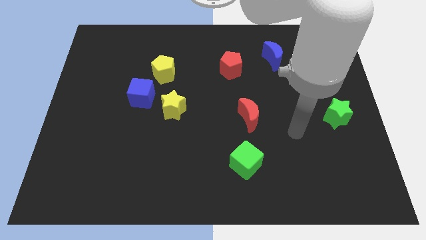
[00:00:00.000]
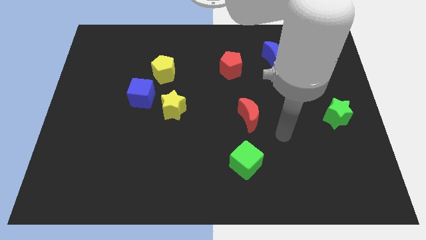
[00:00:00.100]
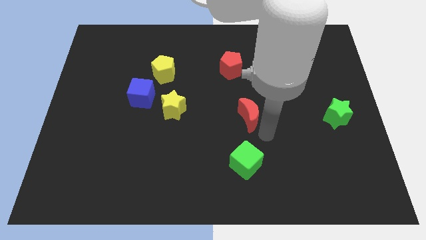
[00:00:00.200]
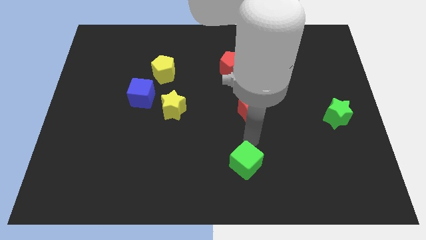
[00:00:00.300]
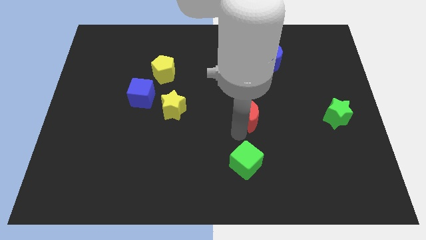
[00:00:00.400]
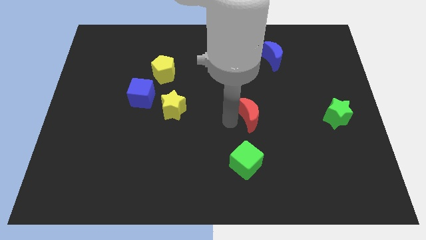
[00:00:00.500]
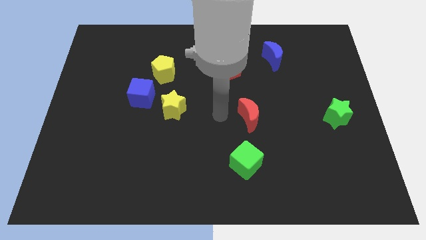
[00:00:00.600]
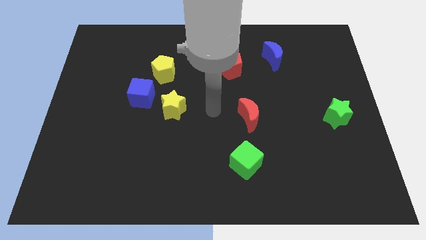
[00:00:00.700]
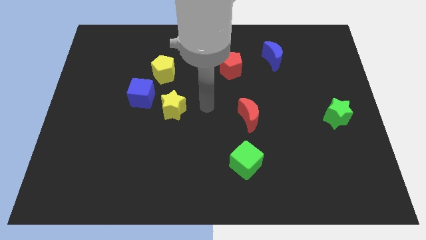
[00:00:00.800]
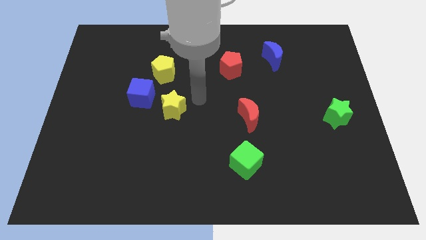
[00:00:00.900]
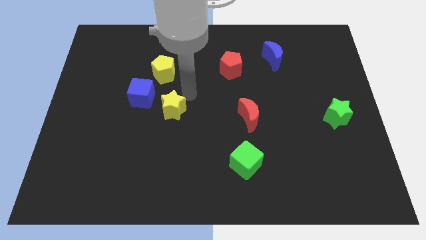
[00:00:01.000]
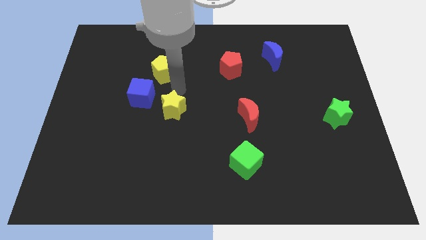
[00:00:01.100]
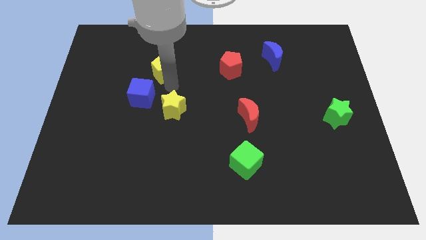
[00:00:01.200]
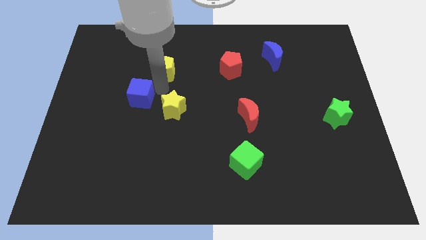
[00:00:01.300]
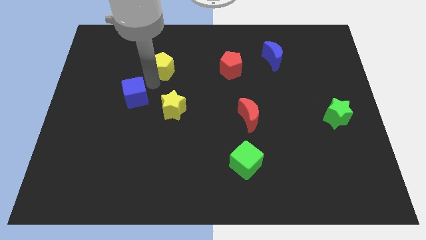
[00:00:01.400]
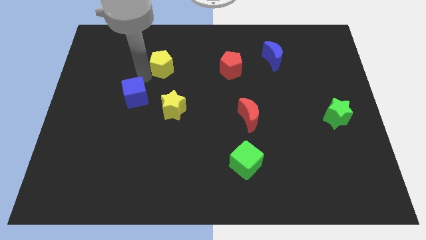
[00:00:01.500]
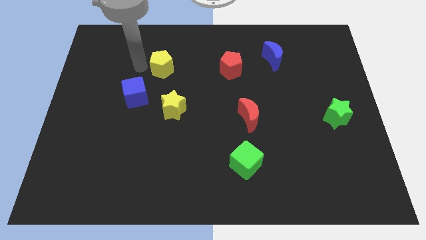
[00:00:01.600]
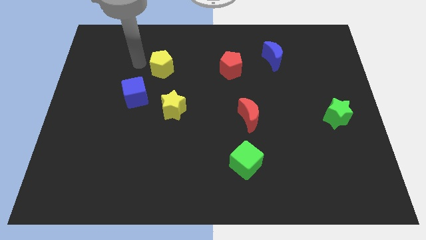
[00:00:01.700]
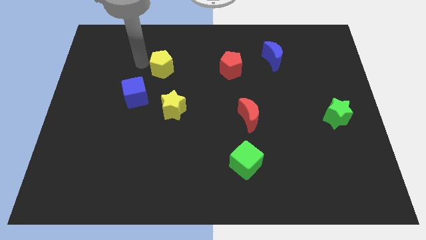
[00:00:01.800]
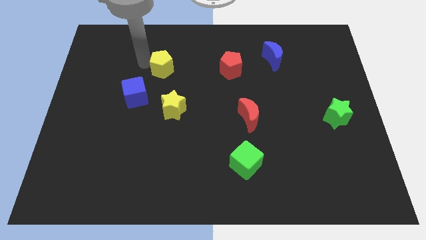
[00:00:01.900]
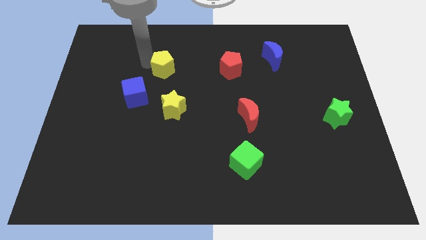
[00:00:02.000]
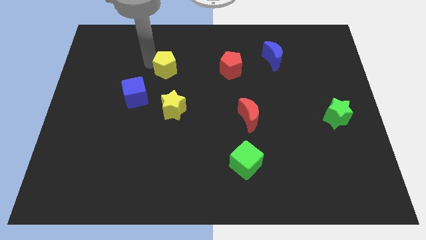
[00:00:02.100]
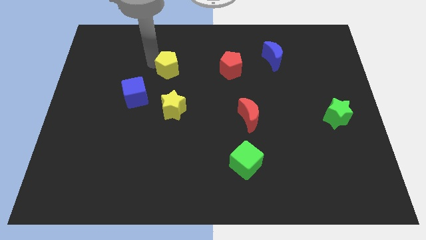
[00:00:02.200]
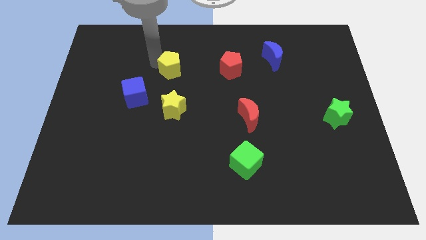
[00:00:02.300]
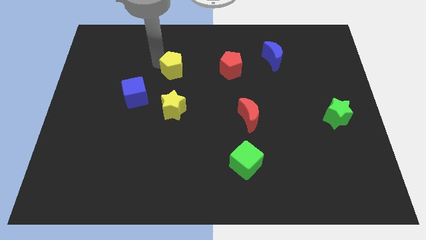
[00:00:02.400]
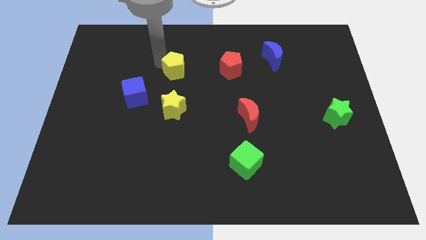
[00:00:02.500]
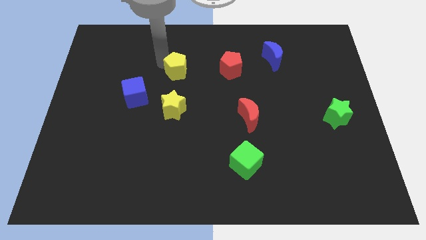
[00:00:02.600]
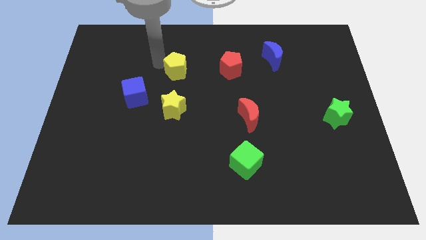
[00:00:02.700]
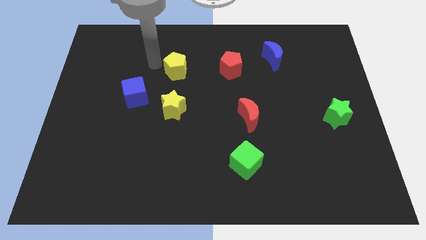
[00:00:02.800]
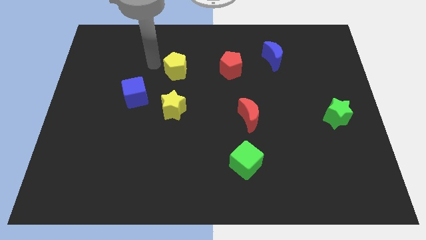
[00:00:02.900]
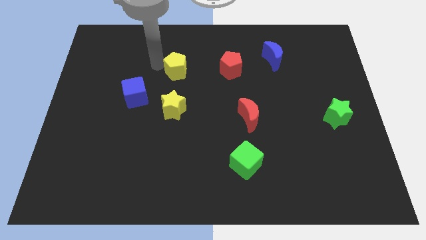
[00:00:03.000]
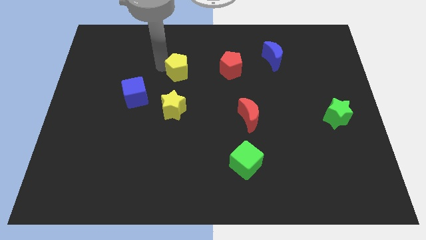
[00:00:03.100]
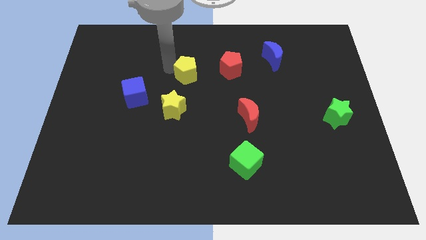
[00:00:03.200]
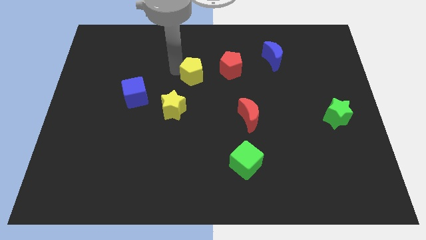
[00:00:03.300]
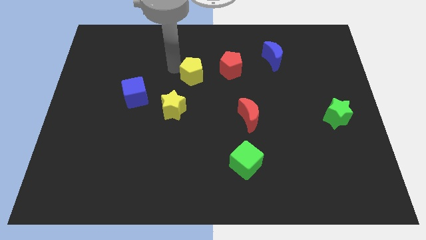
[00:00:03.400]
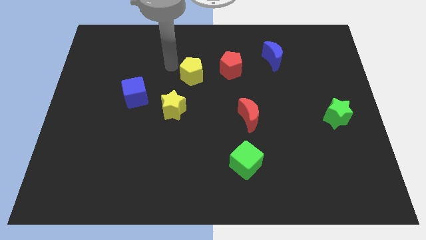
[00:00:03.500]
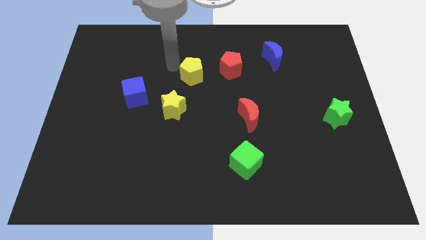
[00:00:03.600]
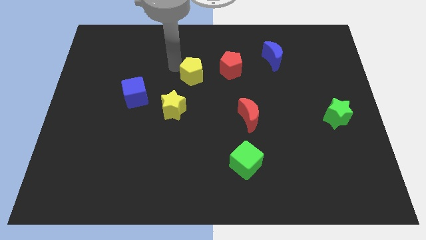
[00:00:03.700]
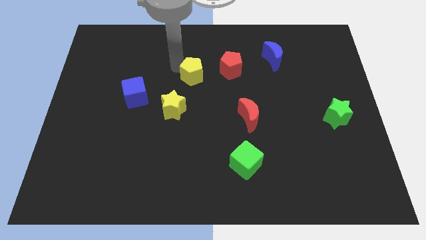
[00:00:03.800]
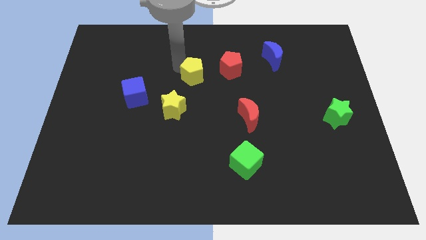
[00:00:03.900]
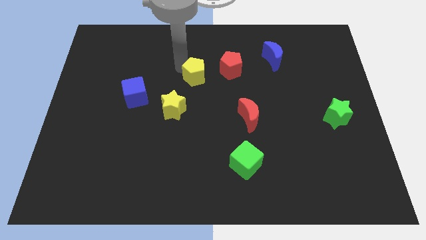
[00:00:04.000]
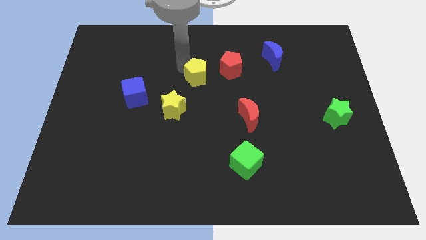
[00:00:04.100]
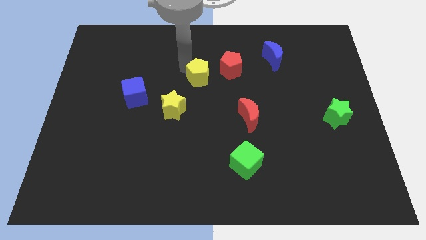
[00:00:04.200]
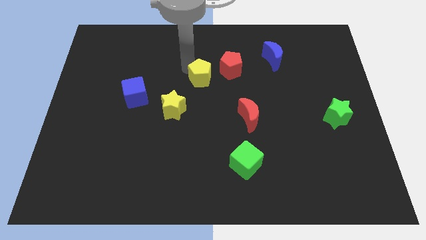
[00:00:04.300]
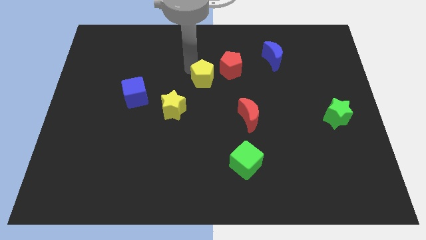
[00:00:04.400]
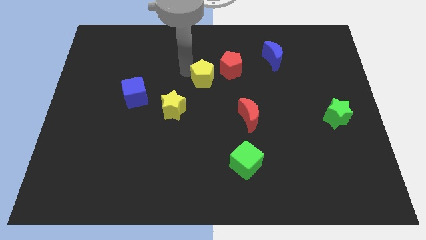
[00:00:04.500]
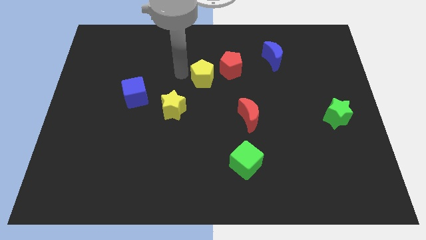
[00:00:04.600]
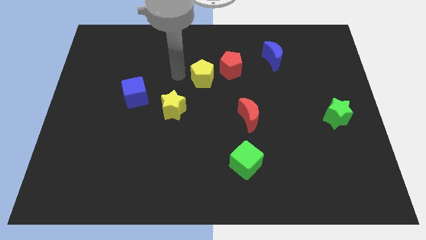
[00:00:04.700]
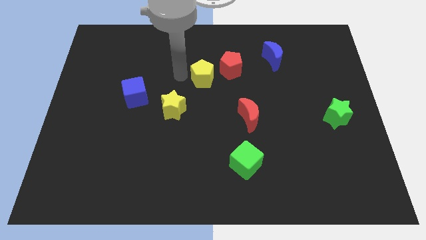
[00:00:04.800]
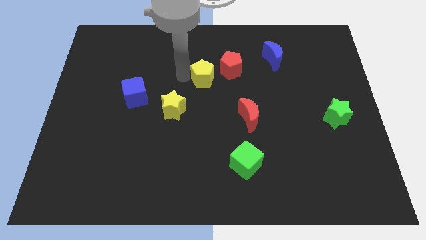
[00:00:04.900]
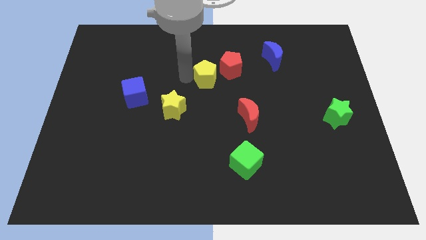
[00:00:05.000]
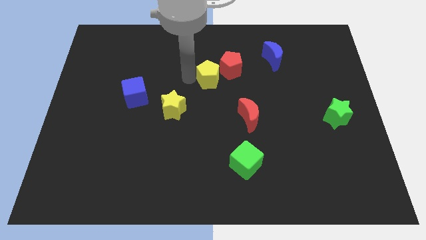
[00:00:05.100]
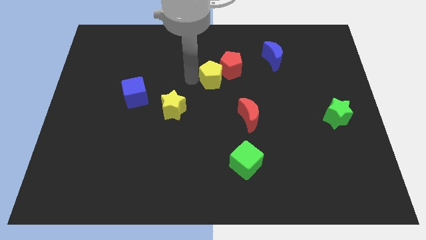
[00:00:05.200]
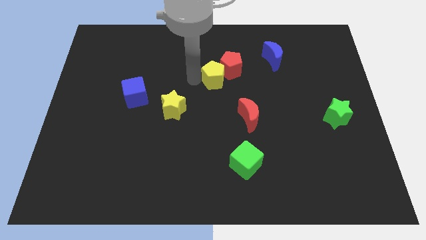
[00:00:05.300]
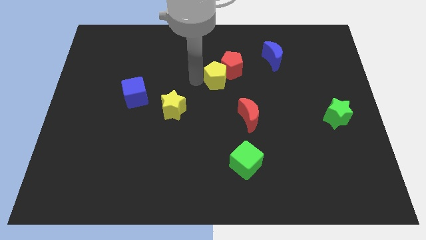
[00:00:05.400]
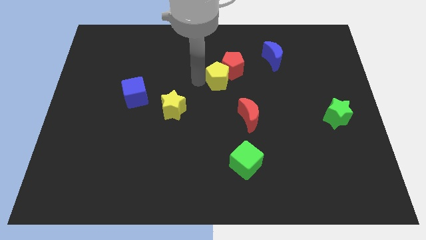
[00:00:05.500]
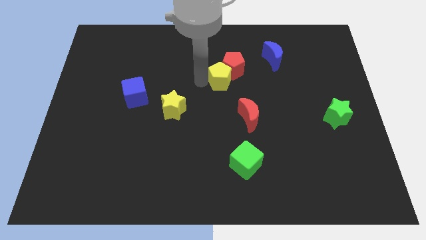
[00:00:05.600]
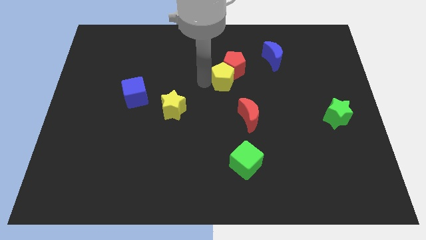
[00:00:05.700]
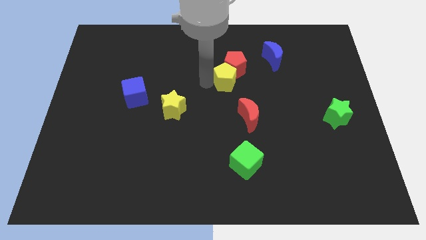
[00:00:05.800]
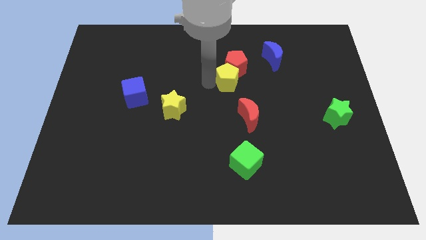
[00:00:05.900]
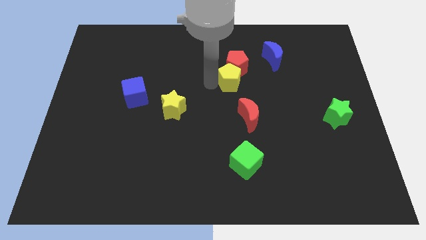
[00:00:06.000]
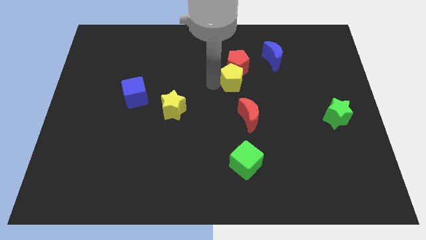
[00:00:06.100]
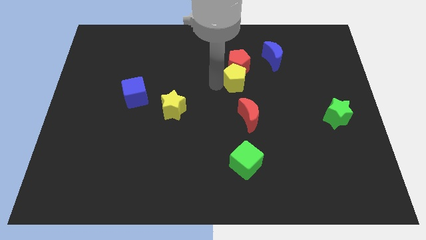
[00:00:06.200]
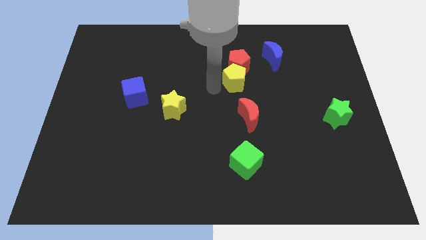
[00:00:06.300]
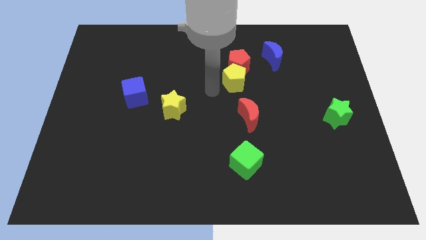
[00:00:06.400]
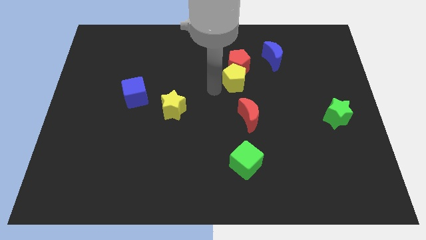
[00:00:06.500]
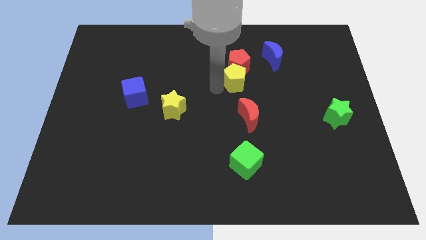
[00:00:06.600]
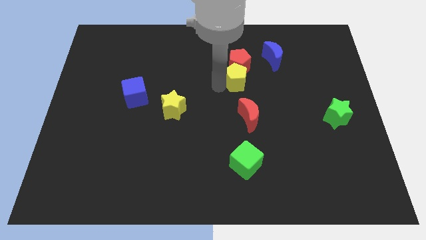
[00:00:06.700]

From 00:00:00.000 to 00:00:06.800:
move the yellow pentagon to the bottom left of the blue moon

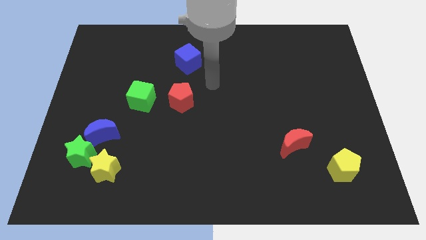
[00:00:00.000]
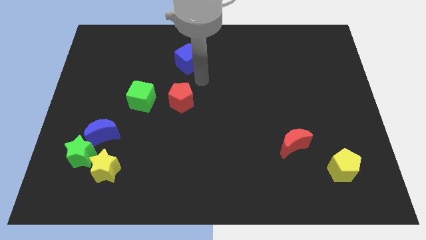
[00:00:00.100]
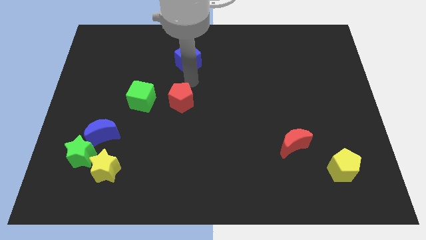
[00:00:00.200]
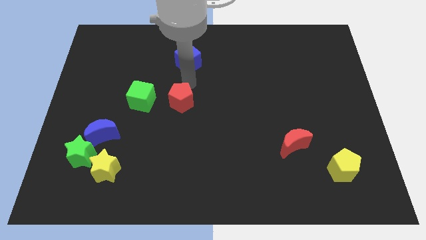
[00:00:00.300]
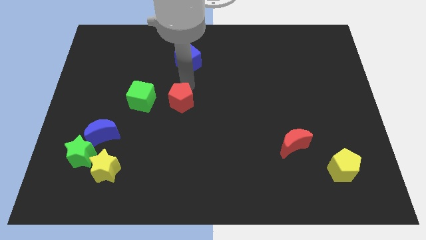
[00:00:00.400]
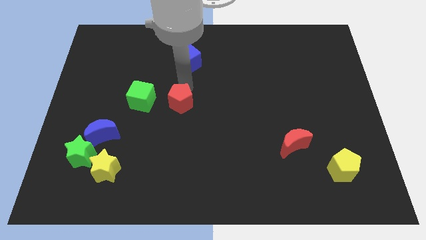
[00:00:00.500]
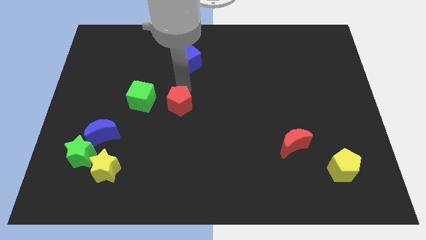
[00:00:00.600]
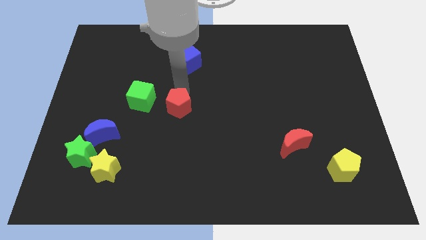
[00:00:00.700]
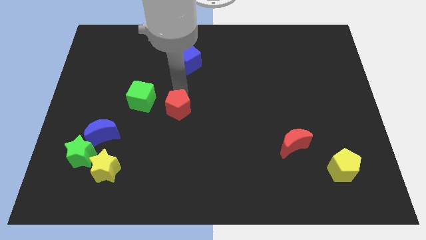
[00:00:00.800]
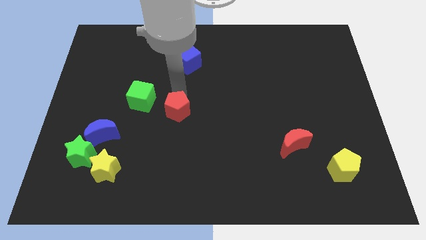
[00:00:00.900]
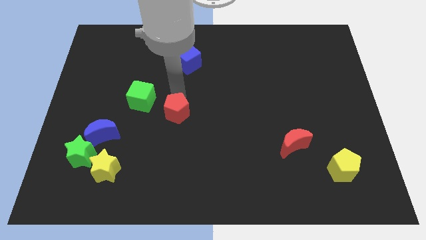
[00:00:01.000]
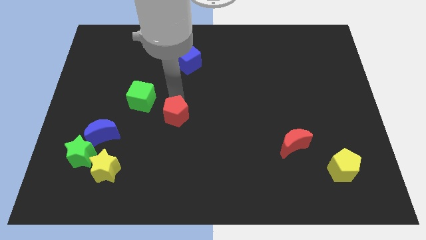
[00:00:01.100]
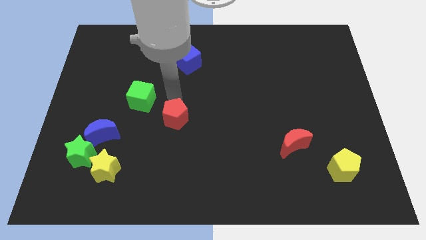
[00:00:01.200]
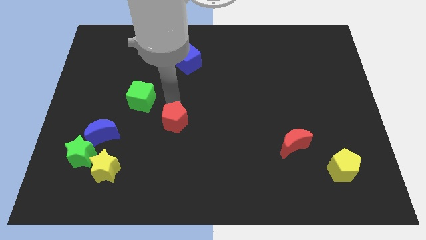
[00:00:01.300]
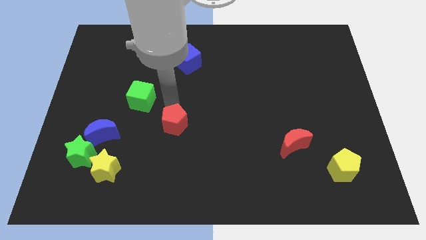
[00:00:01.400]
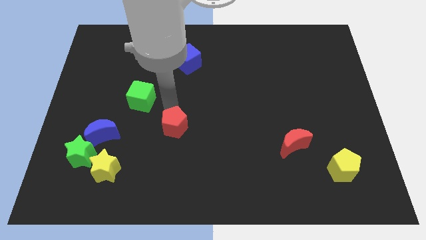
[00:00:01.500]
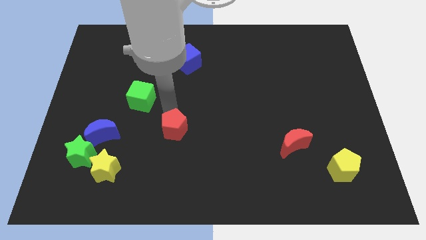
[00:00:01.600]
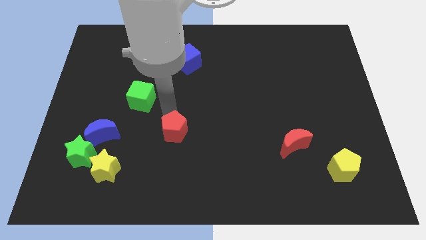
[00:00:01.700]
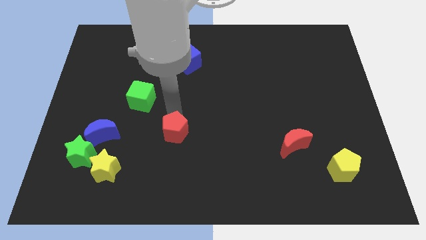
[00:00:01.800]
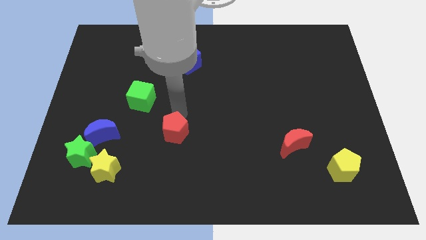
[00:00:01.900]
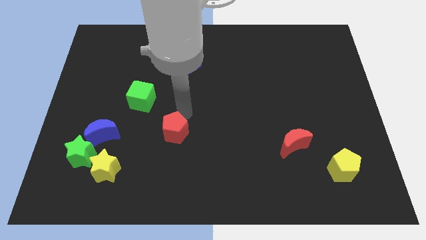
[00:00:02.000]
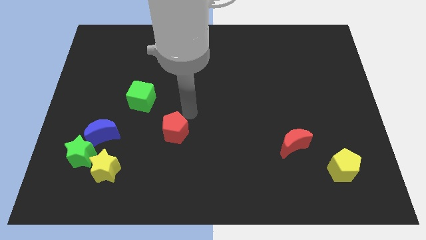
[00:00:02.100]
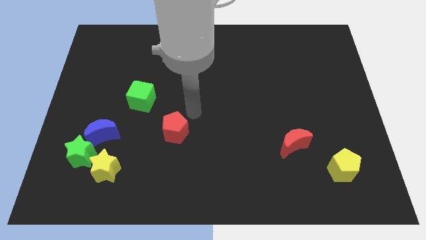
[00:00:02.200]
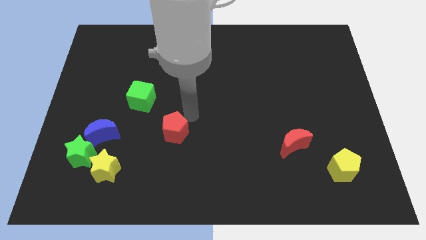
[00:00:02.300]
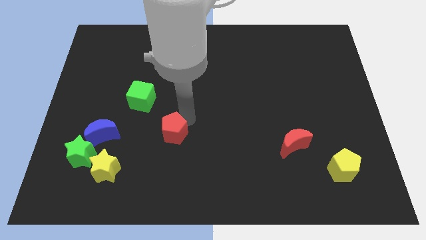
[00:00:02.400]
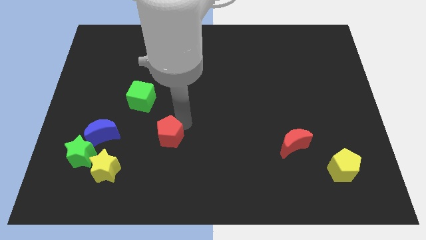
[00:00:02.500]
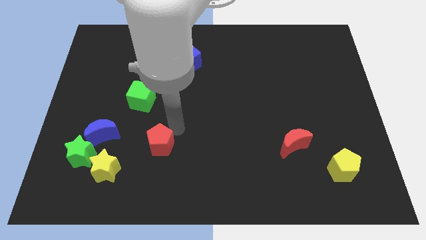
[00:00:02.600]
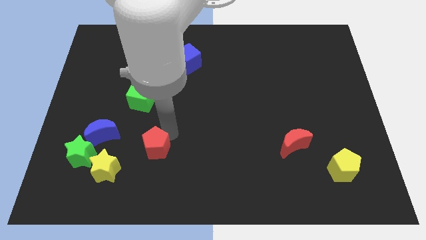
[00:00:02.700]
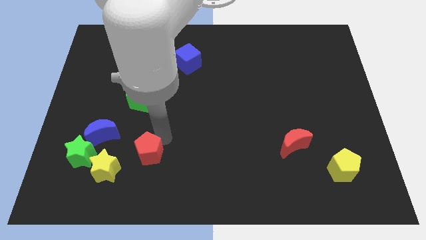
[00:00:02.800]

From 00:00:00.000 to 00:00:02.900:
slide the red pentagon just right of the yellow star
